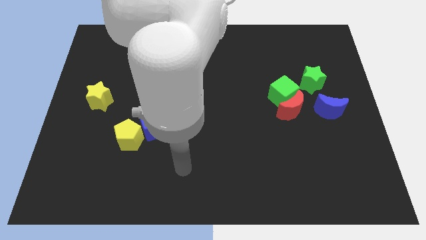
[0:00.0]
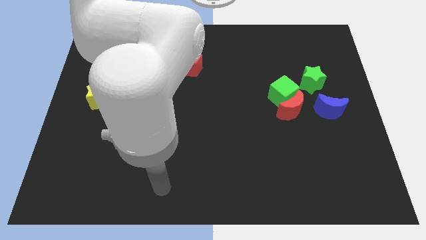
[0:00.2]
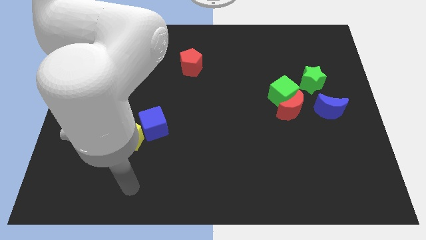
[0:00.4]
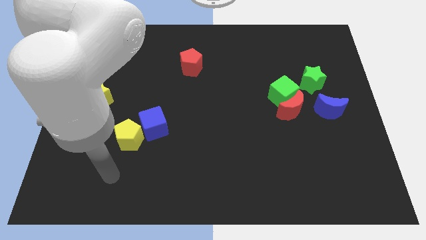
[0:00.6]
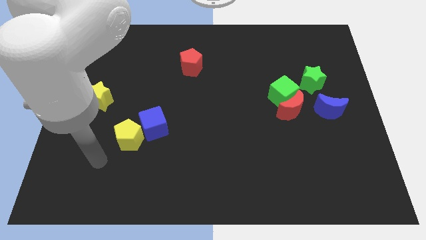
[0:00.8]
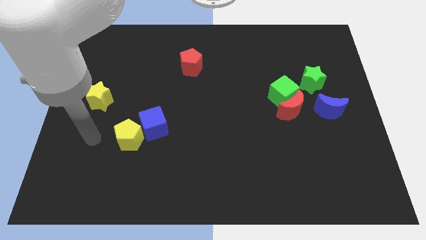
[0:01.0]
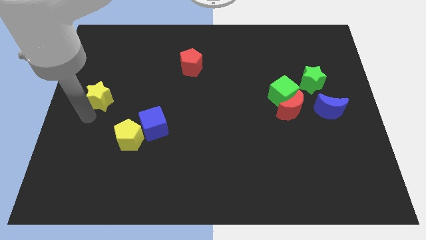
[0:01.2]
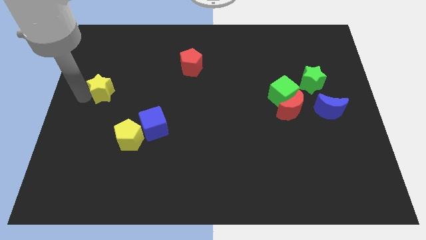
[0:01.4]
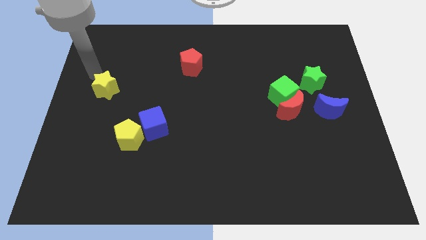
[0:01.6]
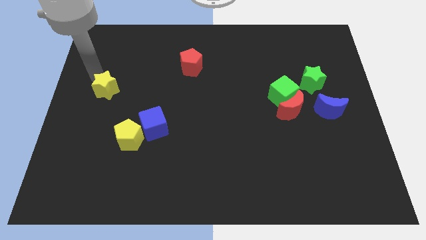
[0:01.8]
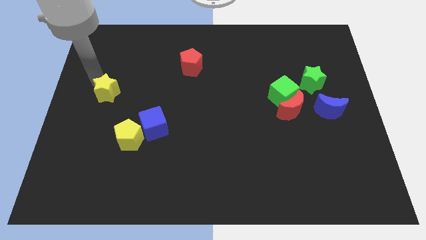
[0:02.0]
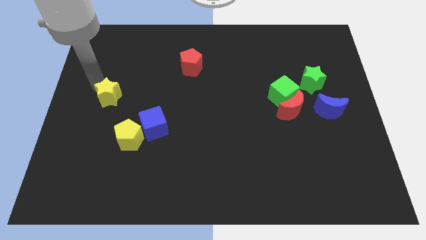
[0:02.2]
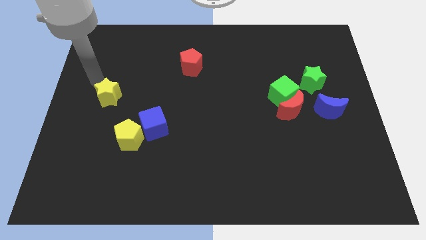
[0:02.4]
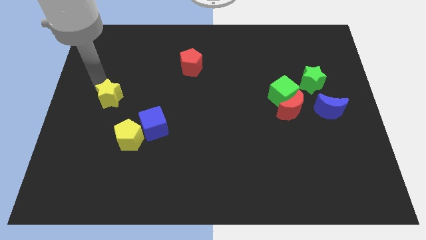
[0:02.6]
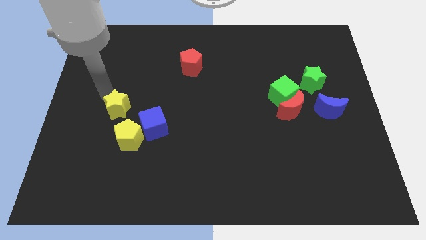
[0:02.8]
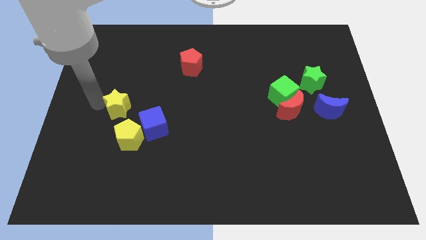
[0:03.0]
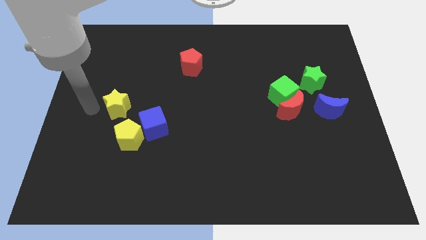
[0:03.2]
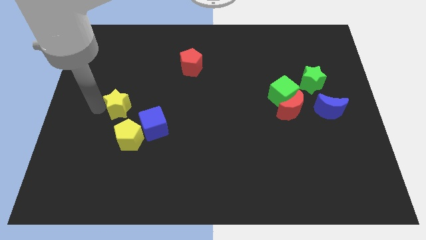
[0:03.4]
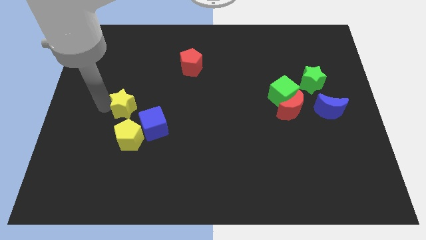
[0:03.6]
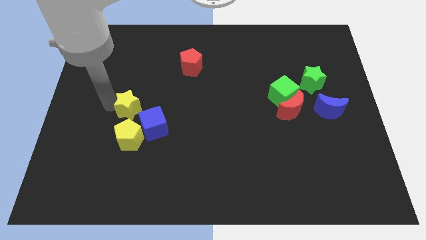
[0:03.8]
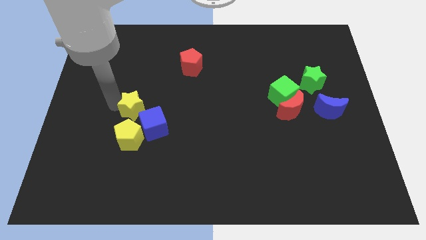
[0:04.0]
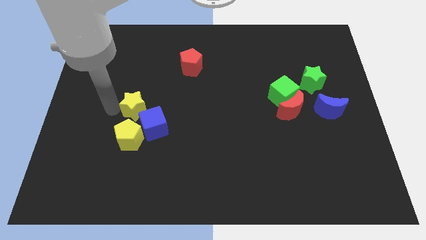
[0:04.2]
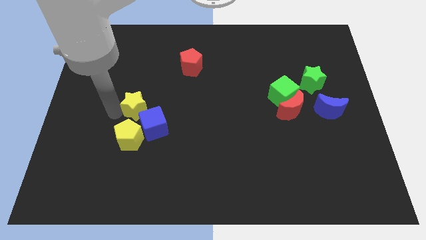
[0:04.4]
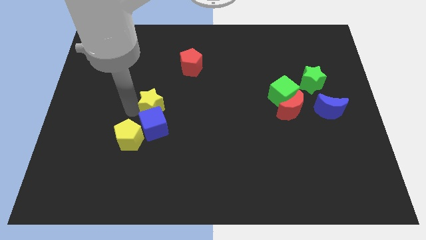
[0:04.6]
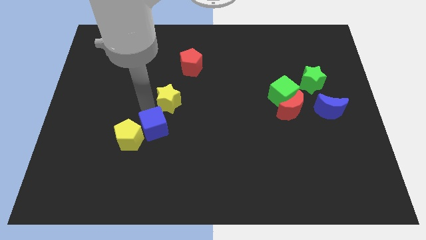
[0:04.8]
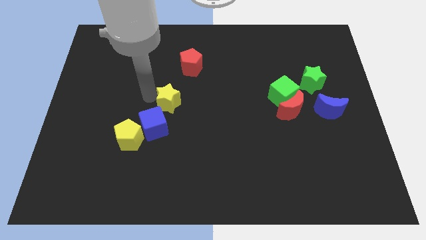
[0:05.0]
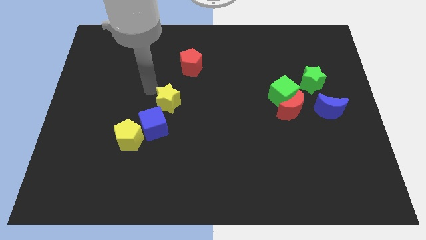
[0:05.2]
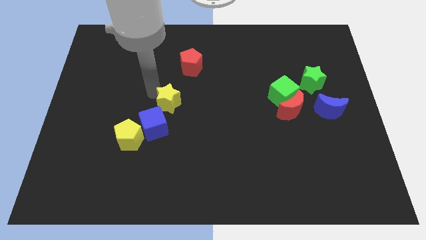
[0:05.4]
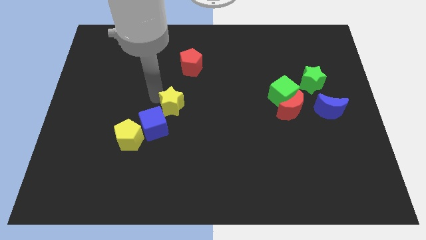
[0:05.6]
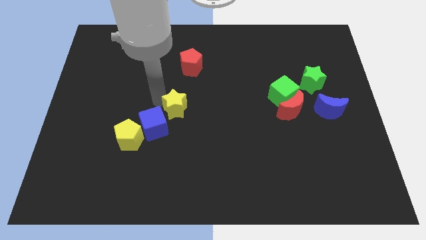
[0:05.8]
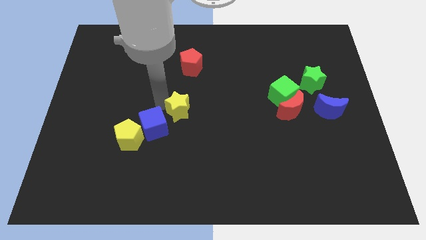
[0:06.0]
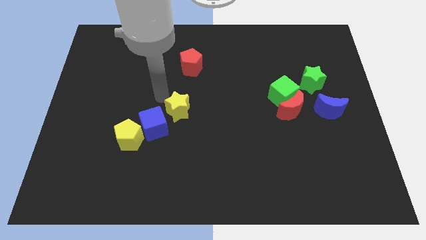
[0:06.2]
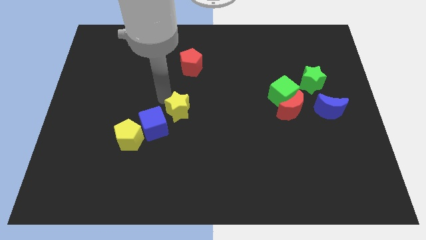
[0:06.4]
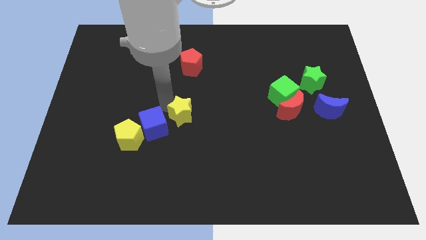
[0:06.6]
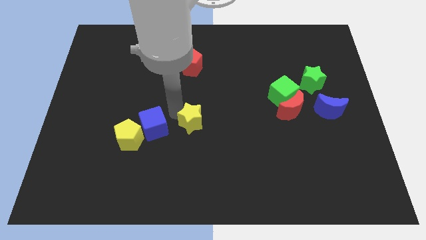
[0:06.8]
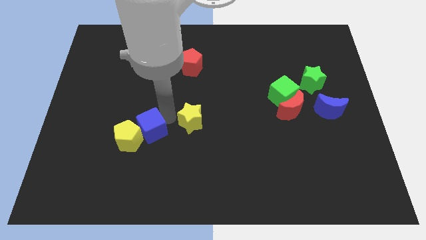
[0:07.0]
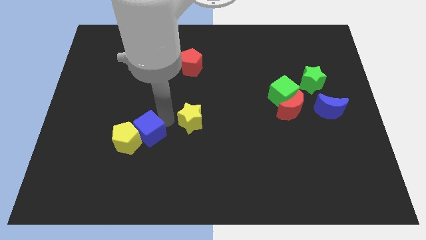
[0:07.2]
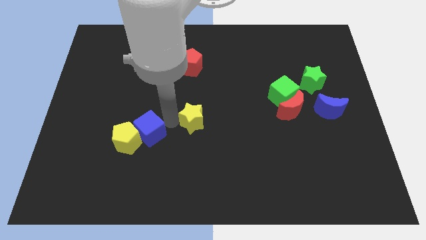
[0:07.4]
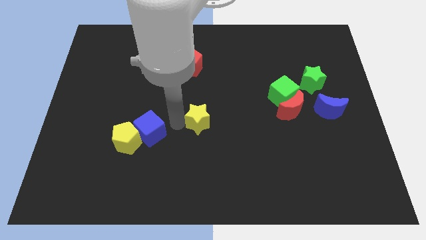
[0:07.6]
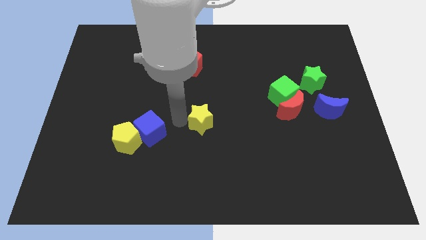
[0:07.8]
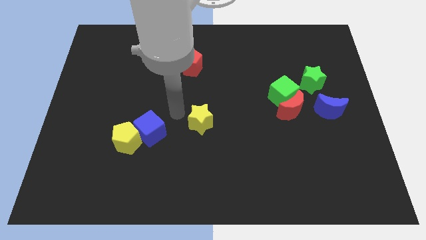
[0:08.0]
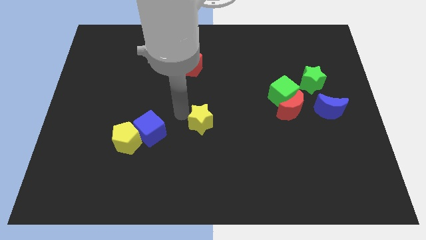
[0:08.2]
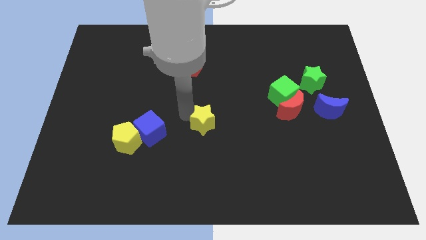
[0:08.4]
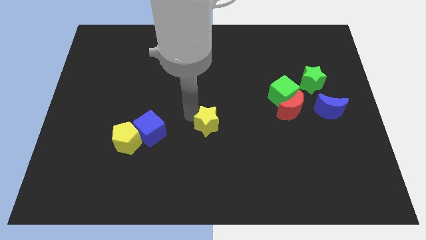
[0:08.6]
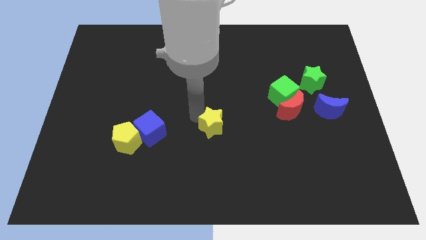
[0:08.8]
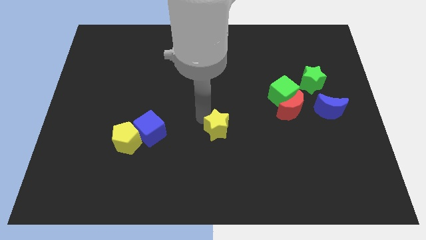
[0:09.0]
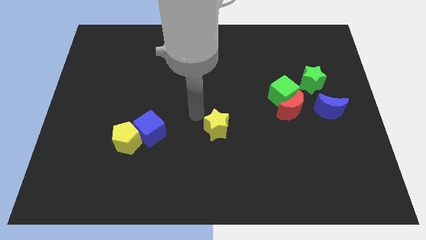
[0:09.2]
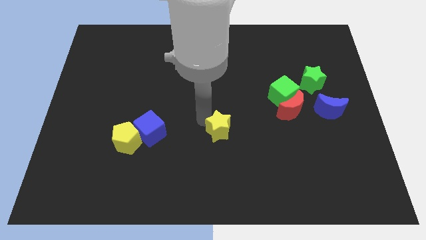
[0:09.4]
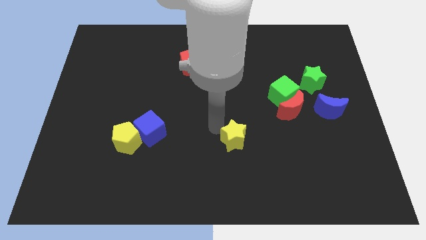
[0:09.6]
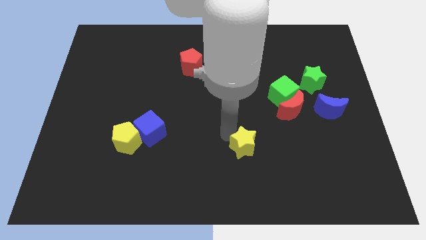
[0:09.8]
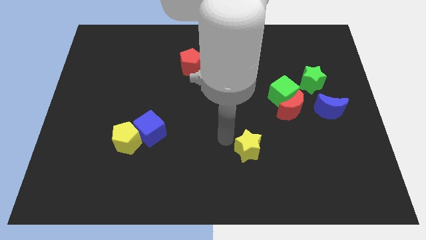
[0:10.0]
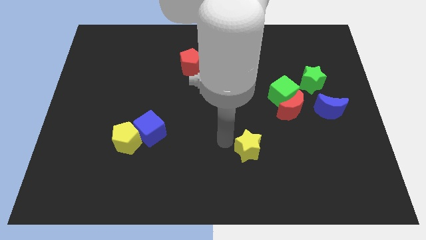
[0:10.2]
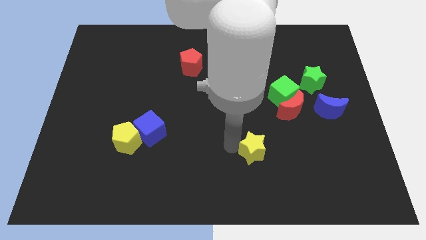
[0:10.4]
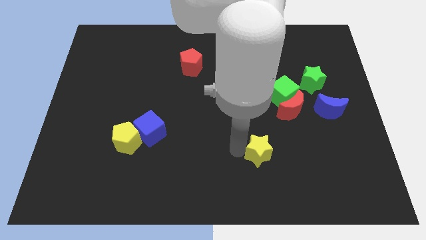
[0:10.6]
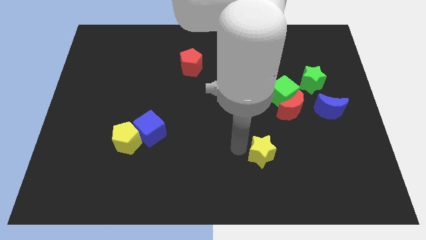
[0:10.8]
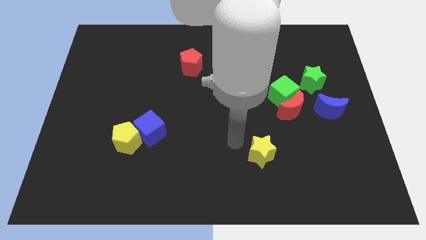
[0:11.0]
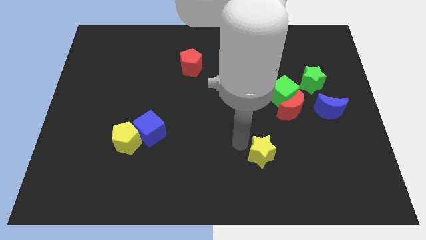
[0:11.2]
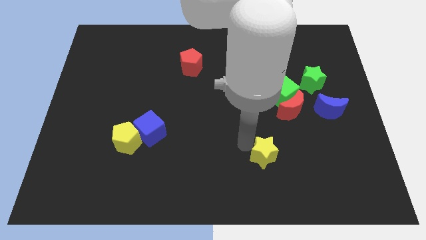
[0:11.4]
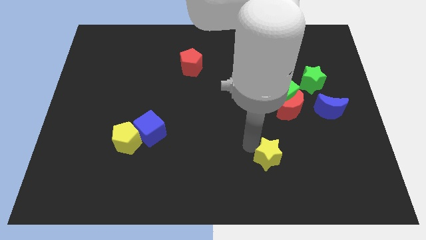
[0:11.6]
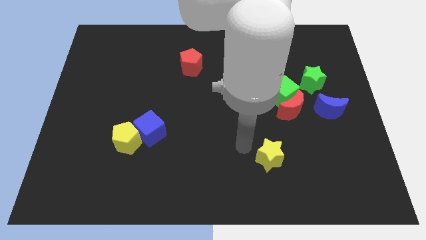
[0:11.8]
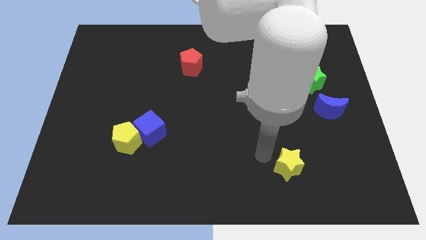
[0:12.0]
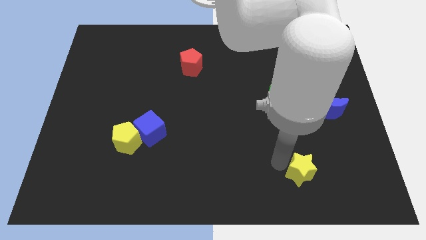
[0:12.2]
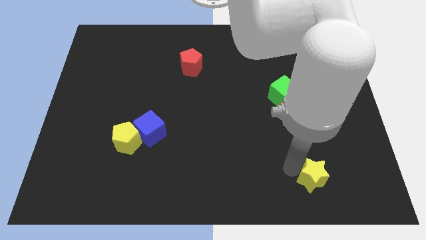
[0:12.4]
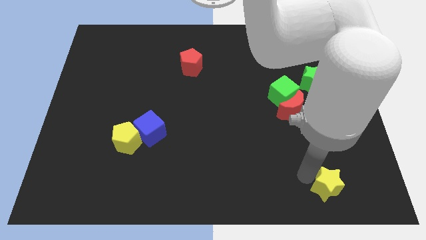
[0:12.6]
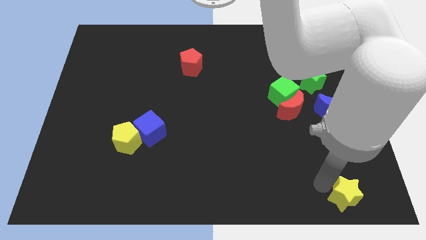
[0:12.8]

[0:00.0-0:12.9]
push the yellow star to the bottom right corner
